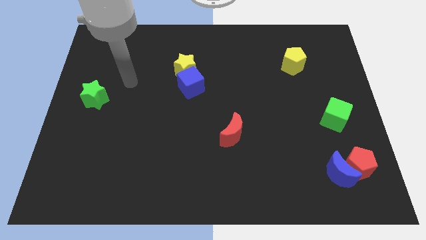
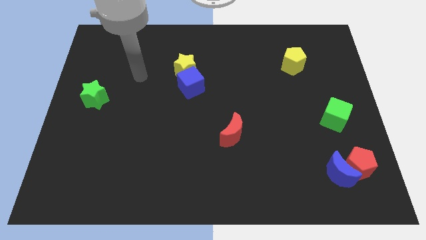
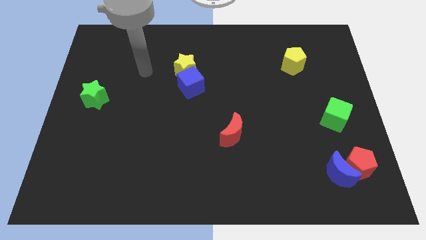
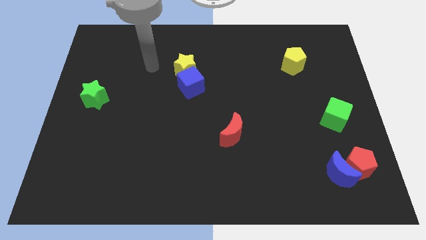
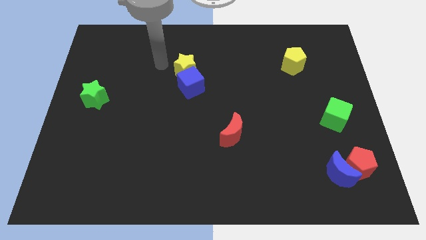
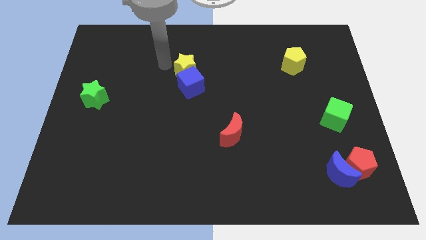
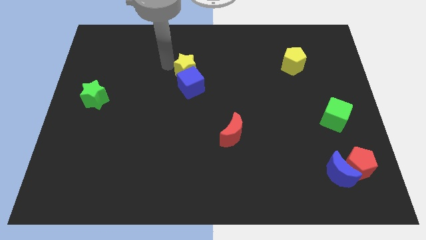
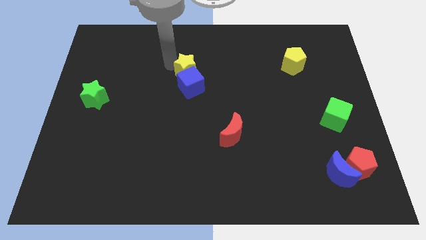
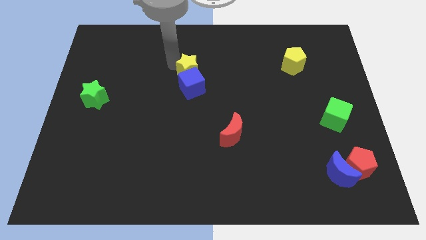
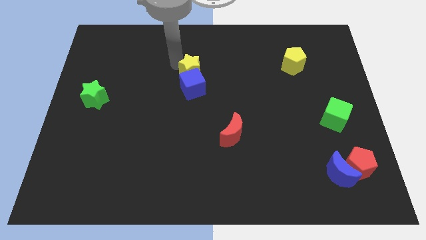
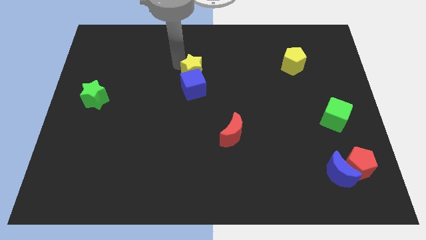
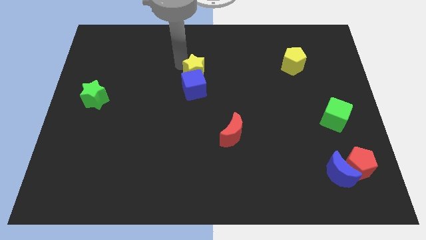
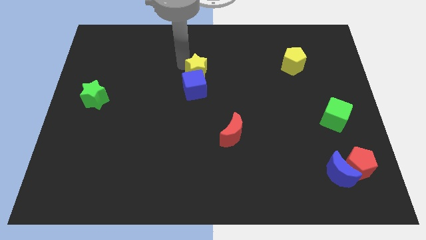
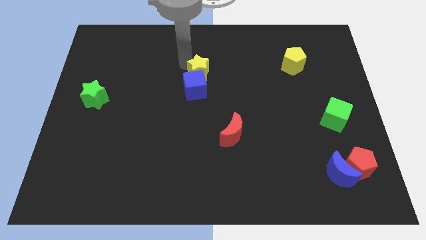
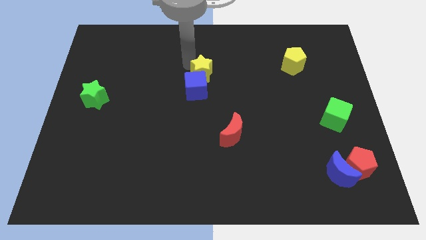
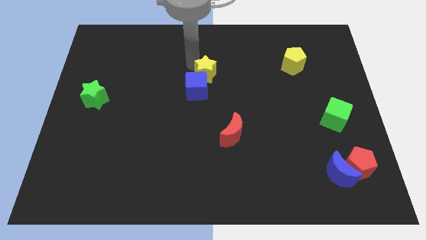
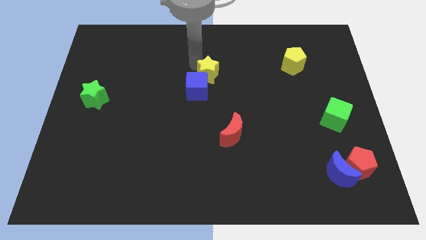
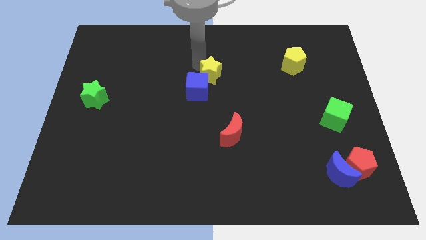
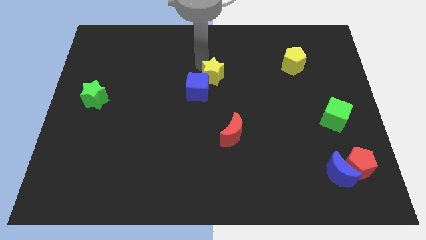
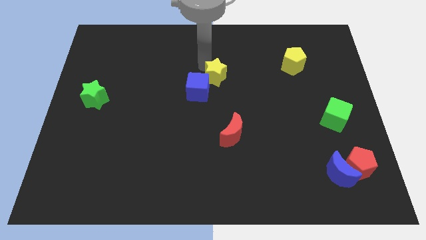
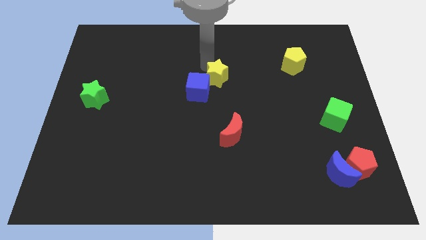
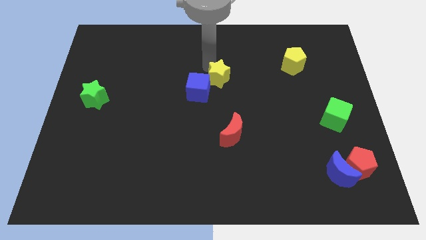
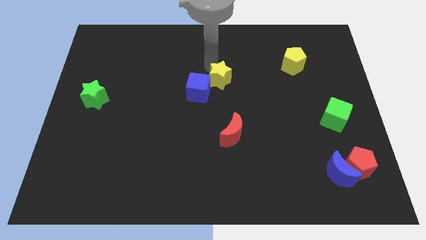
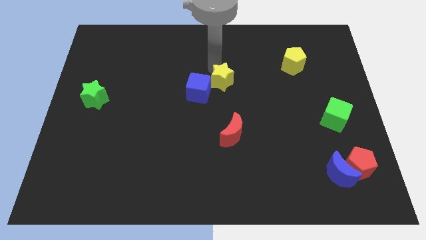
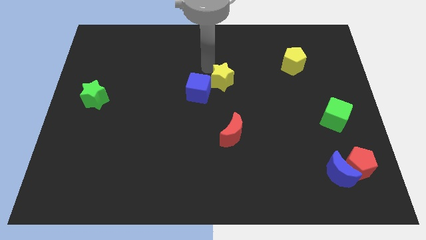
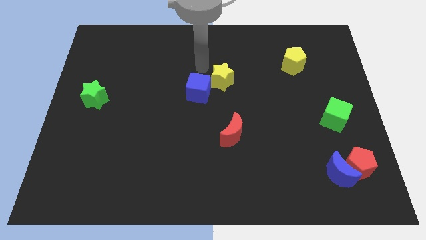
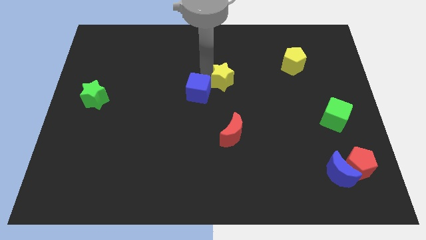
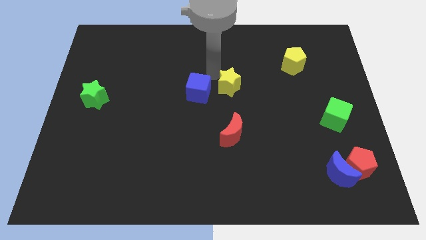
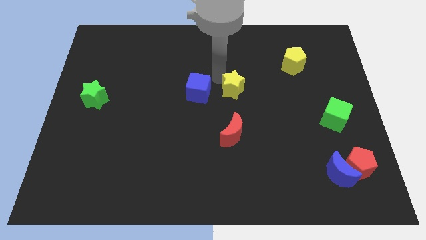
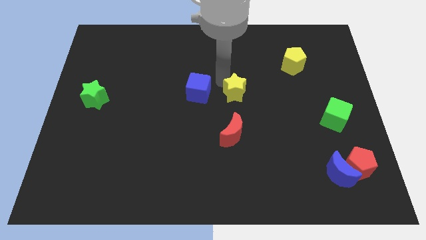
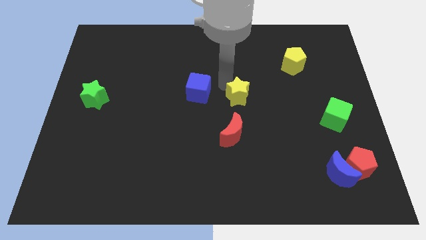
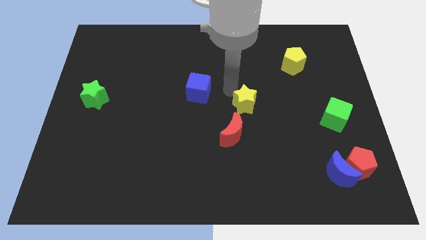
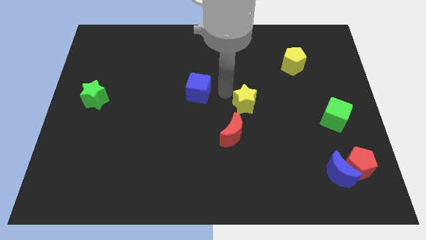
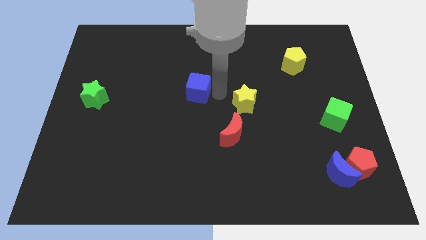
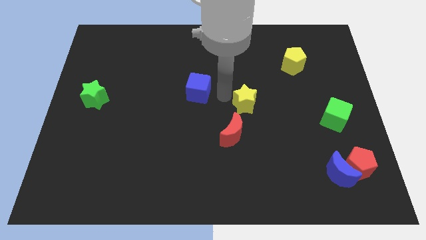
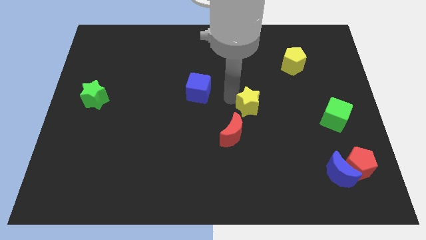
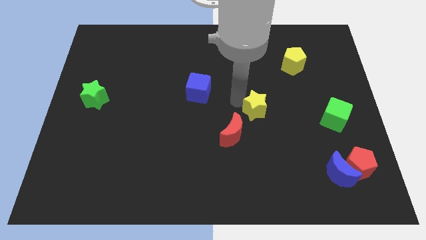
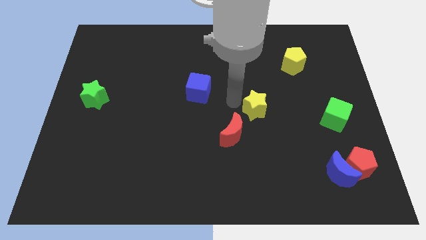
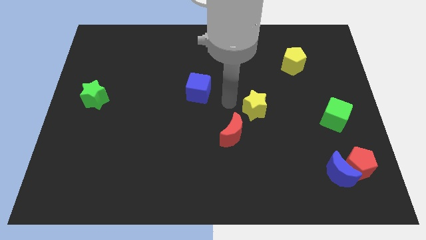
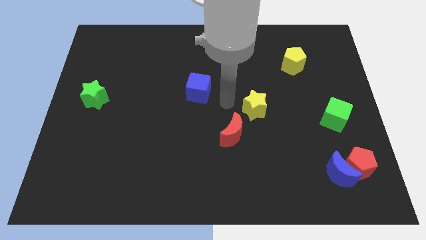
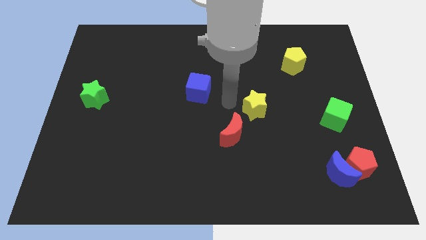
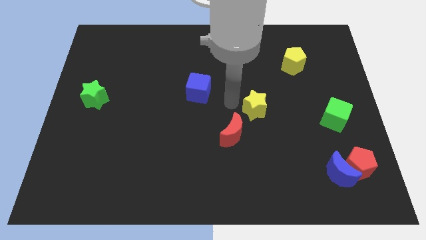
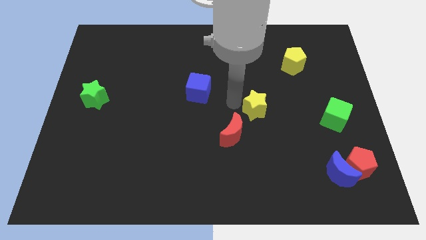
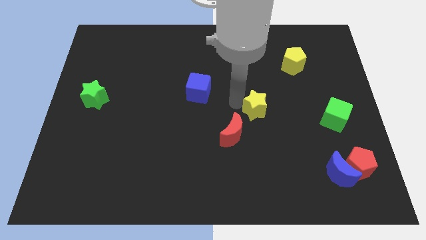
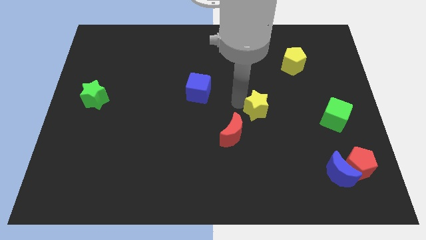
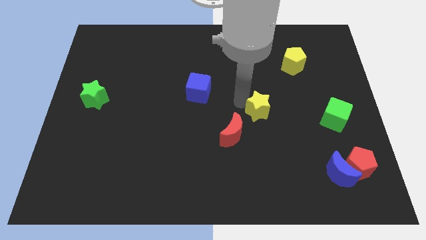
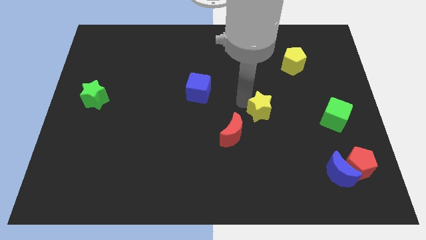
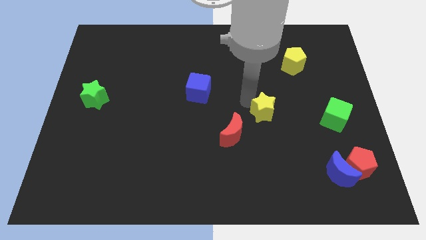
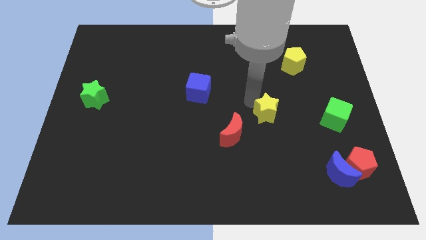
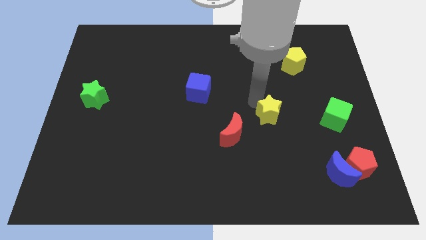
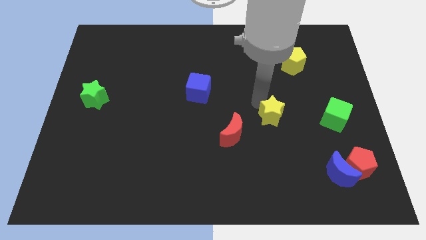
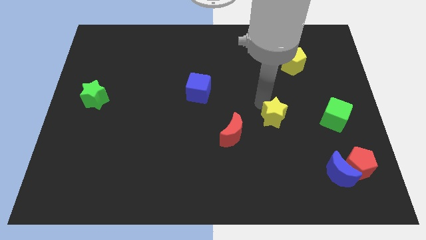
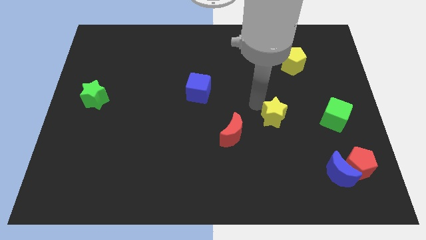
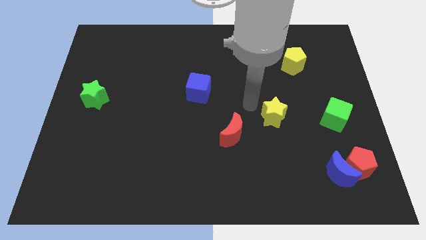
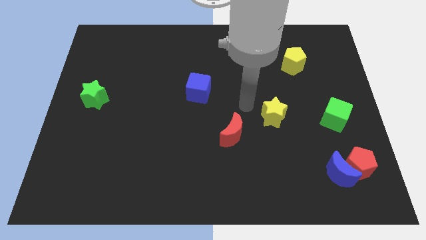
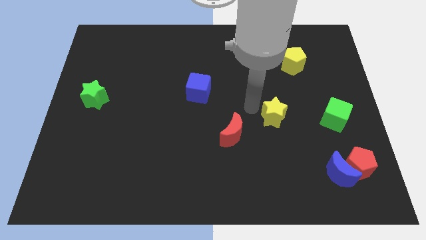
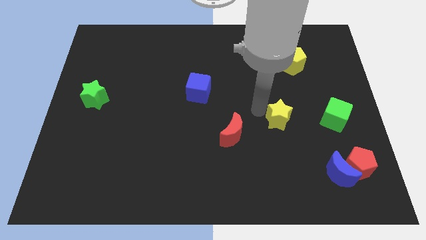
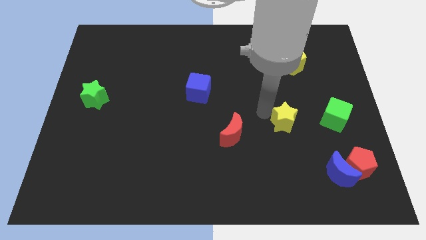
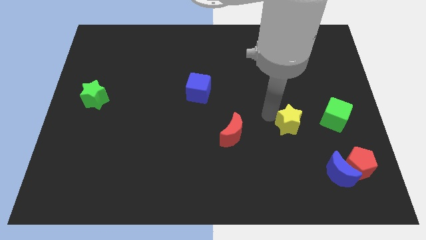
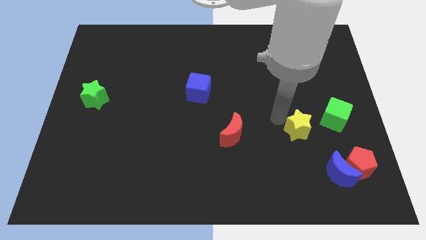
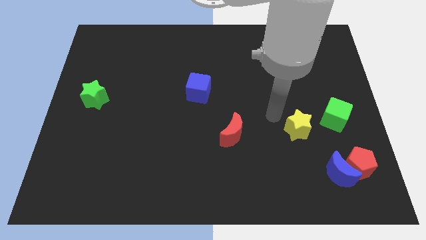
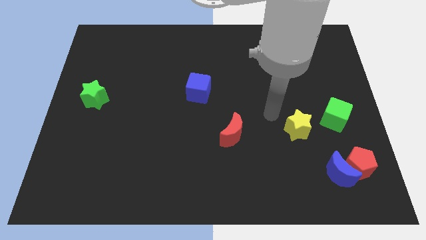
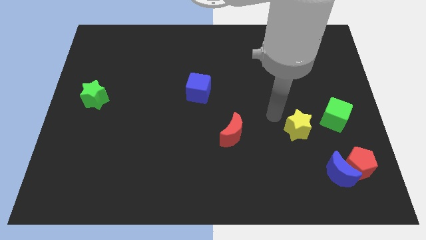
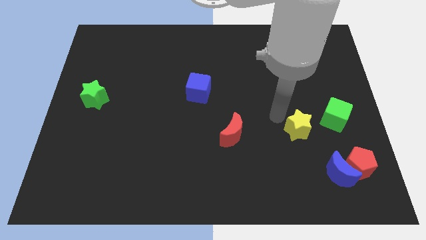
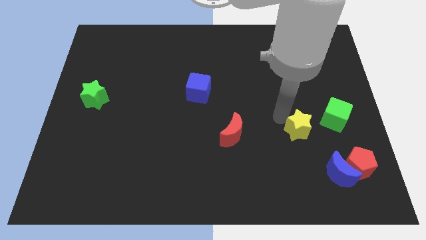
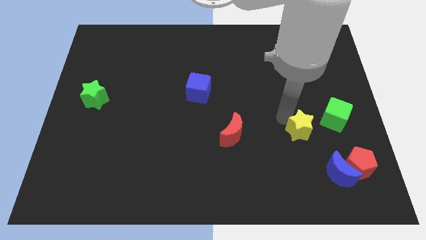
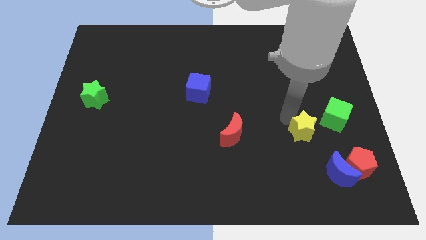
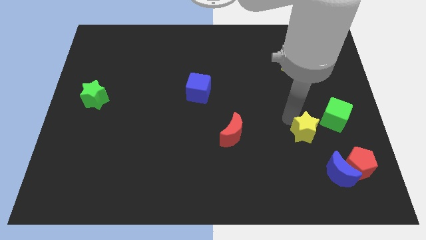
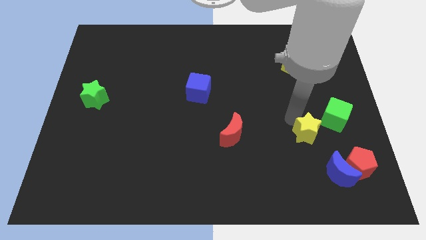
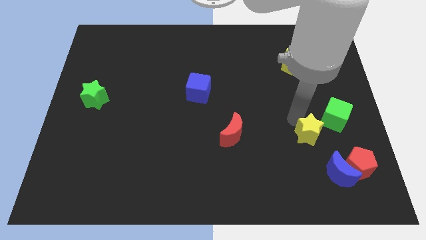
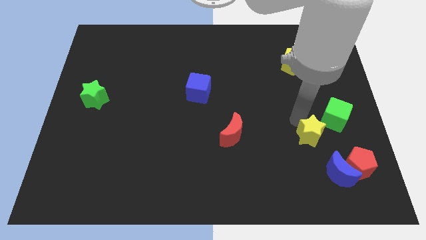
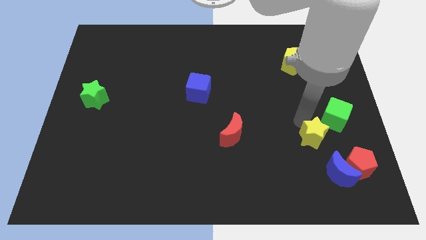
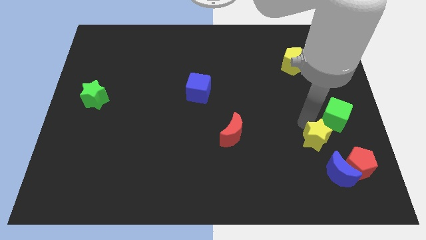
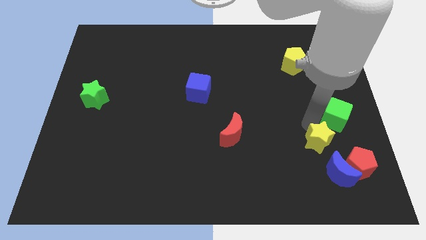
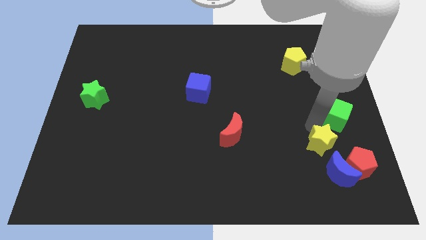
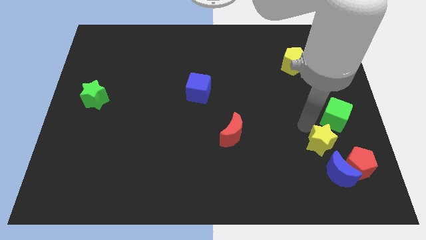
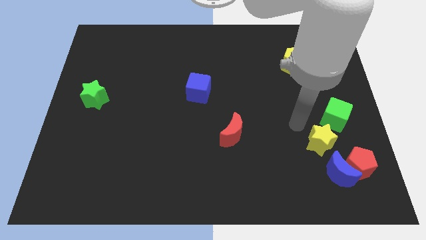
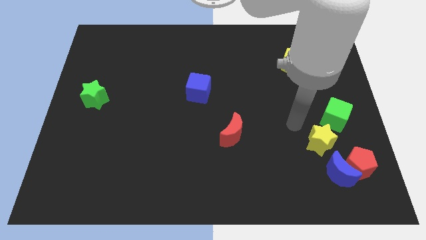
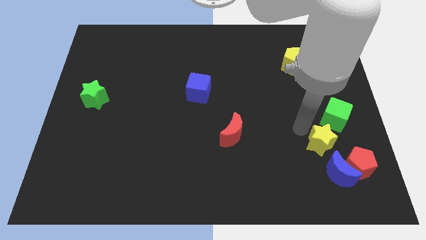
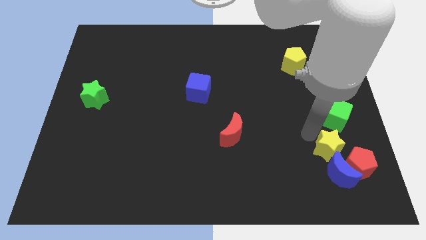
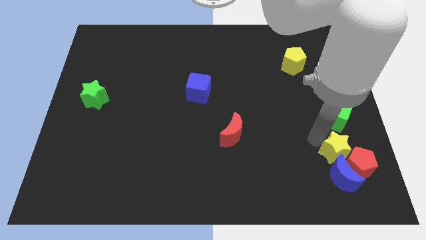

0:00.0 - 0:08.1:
push the yellow star to the red pentagon
